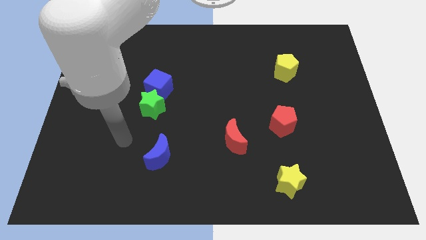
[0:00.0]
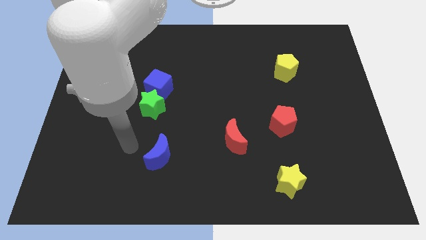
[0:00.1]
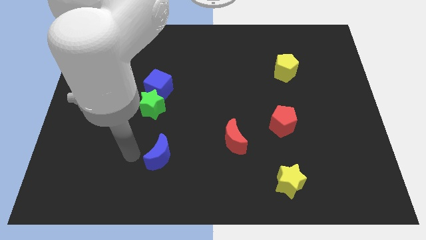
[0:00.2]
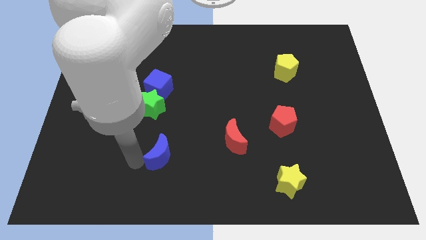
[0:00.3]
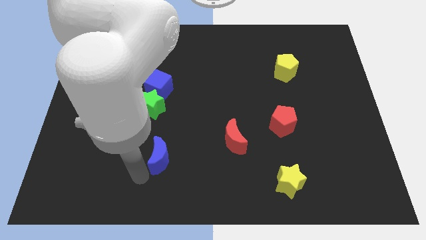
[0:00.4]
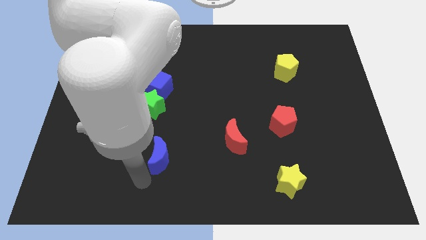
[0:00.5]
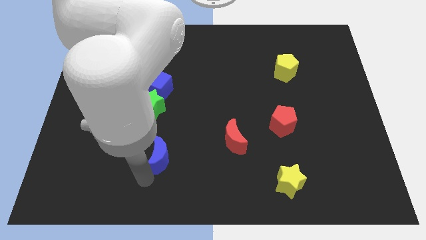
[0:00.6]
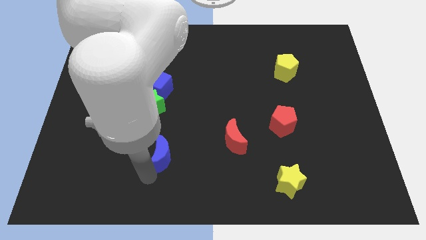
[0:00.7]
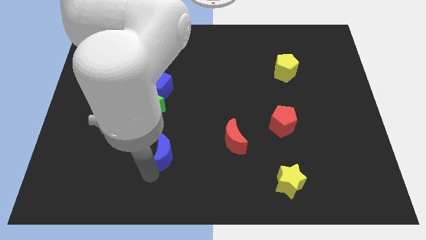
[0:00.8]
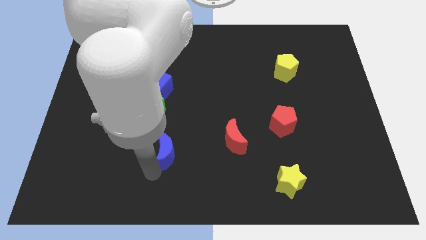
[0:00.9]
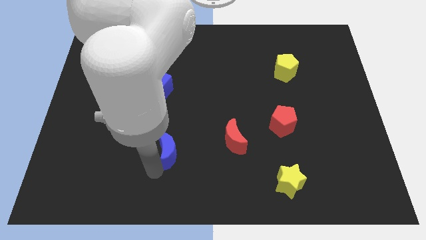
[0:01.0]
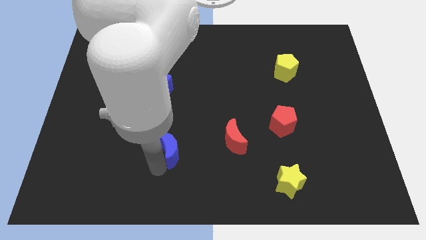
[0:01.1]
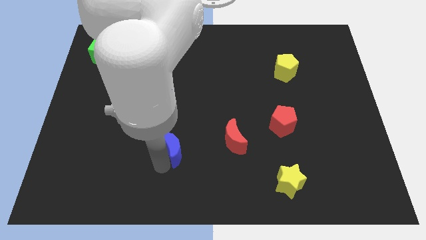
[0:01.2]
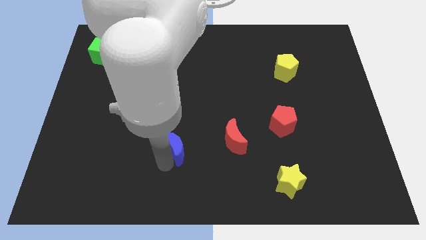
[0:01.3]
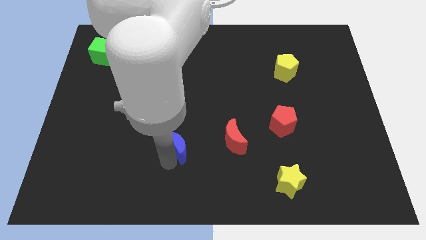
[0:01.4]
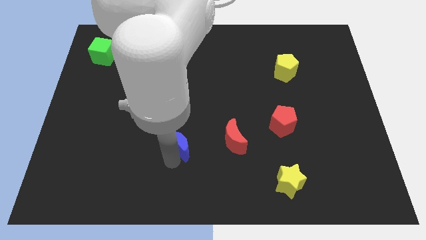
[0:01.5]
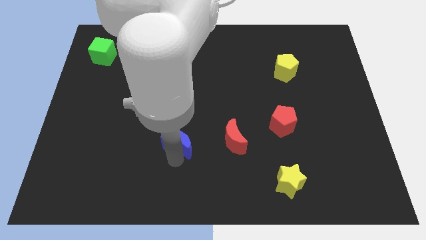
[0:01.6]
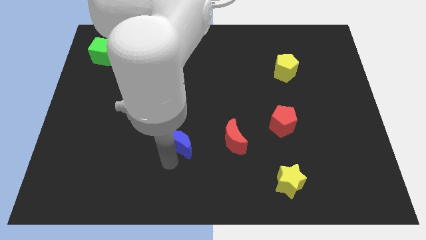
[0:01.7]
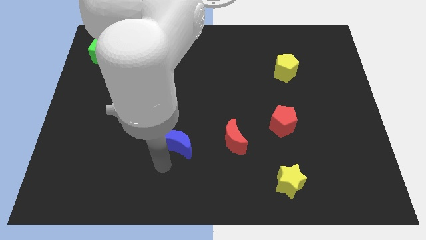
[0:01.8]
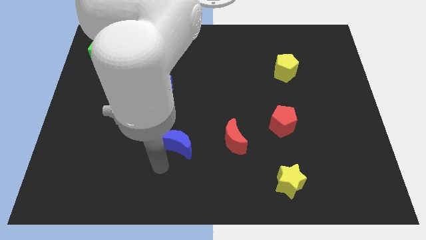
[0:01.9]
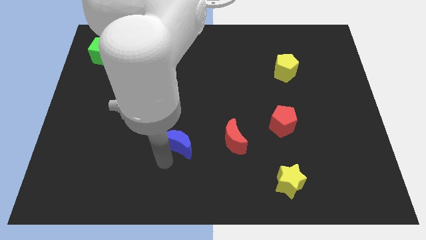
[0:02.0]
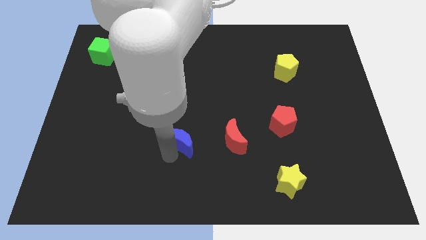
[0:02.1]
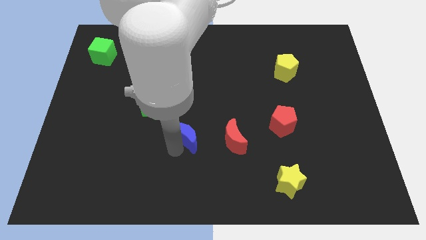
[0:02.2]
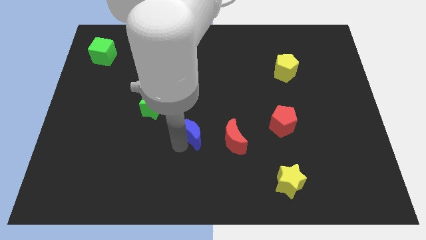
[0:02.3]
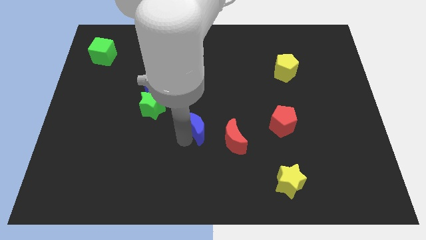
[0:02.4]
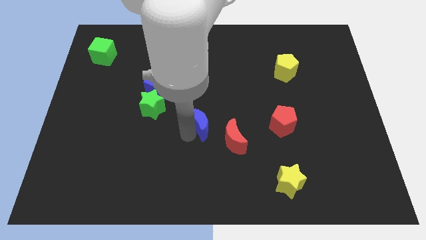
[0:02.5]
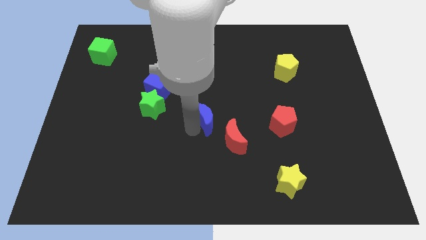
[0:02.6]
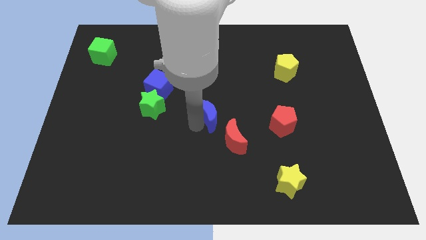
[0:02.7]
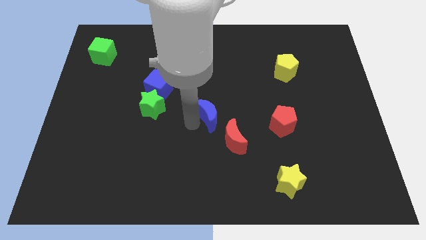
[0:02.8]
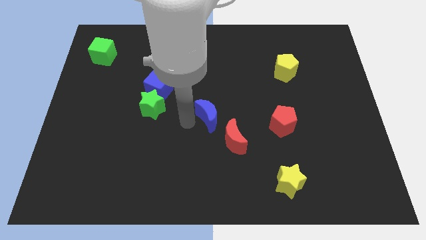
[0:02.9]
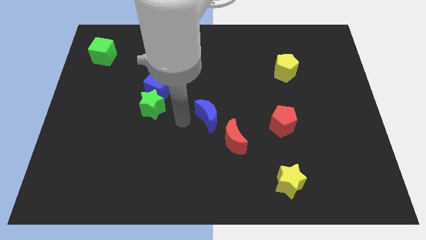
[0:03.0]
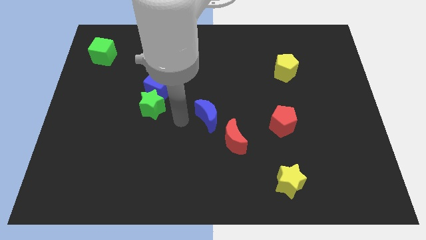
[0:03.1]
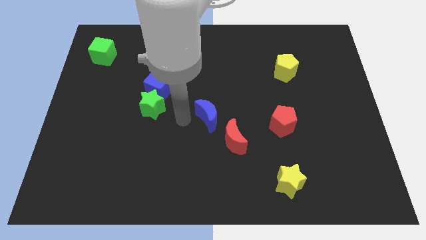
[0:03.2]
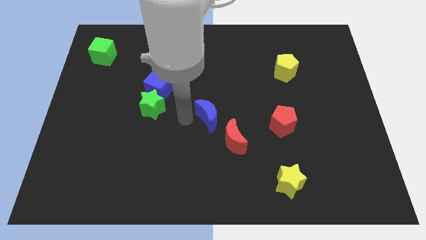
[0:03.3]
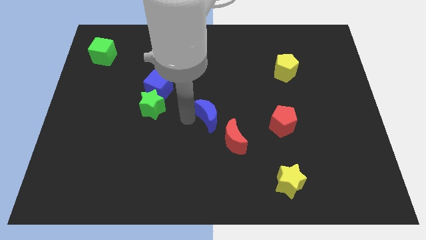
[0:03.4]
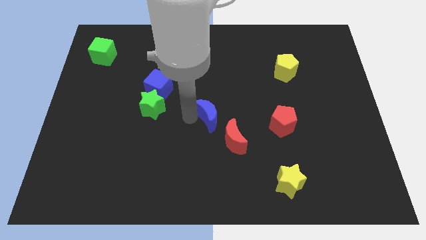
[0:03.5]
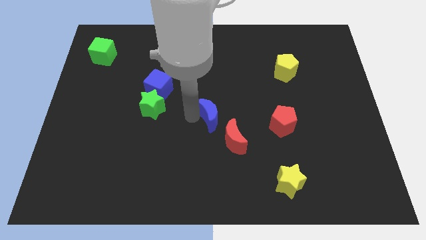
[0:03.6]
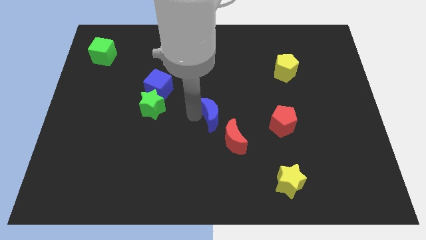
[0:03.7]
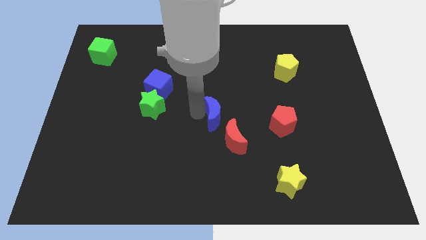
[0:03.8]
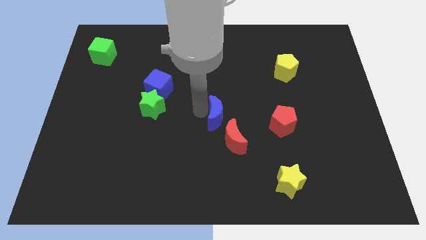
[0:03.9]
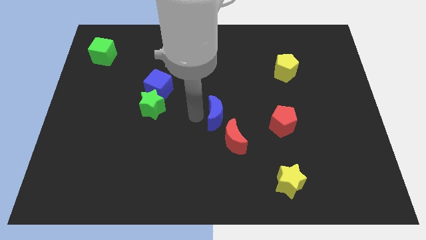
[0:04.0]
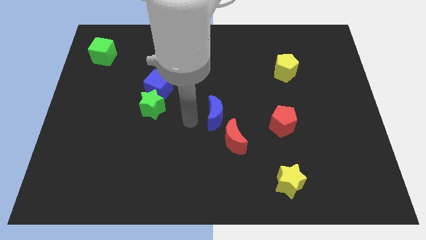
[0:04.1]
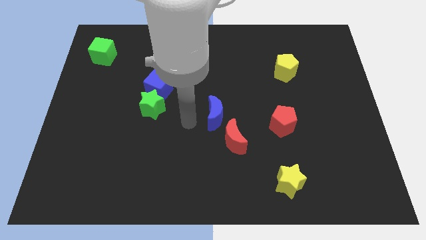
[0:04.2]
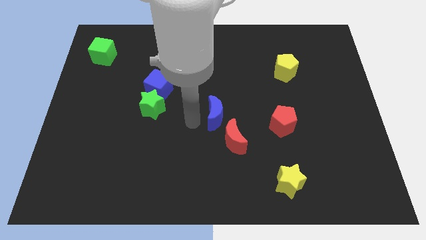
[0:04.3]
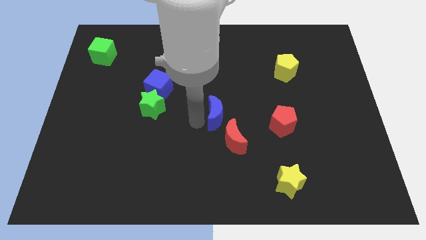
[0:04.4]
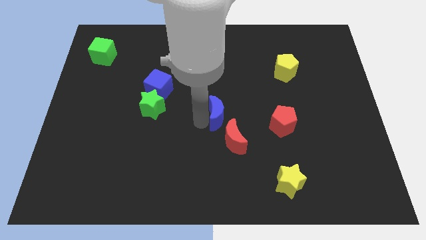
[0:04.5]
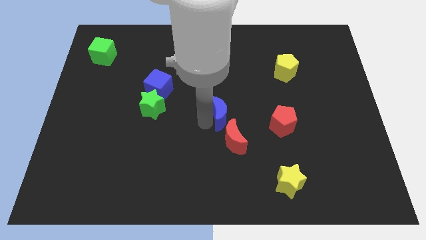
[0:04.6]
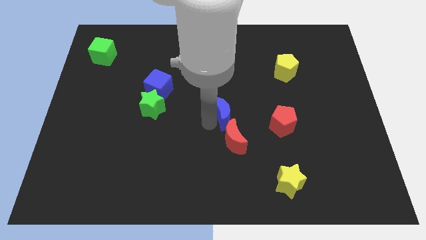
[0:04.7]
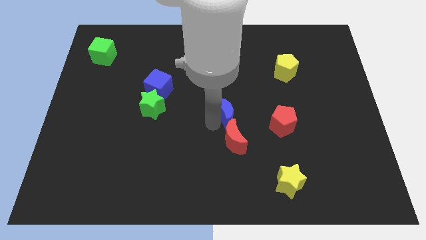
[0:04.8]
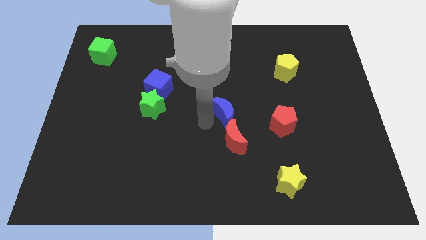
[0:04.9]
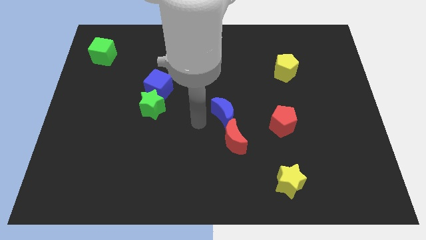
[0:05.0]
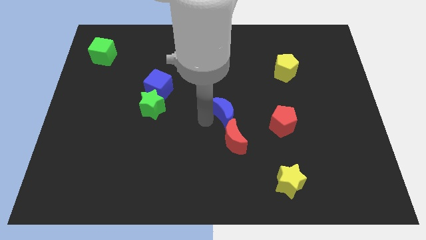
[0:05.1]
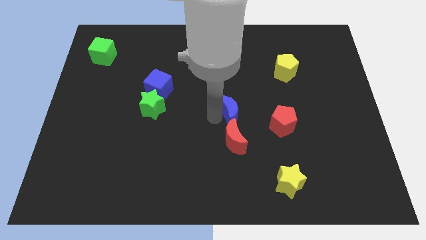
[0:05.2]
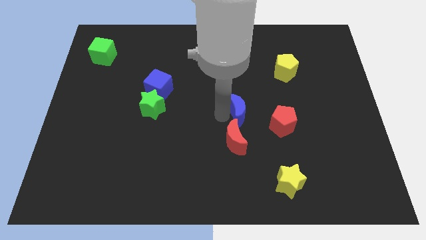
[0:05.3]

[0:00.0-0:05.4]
put the blue moon to the top left of the red pentagon

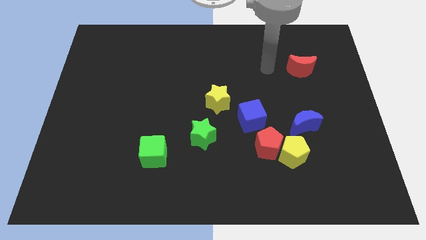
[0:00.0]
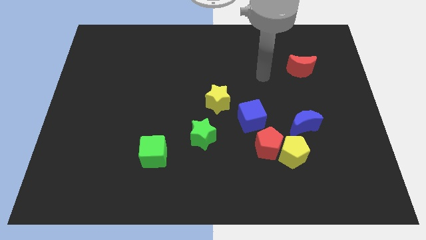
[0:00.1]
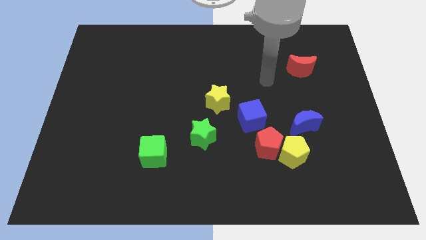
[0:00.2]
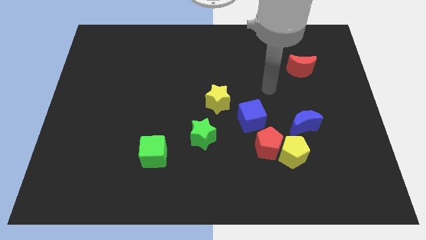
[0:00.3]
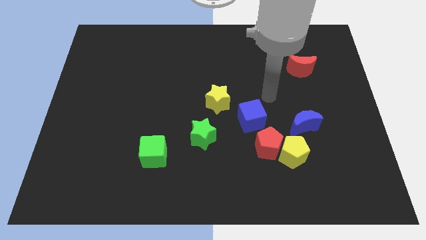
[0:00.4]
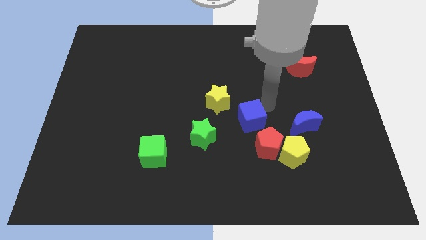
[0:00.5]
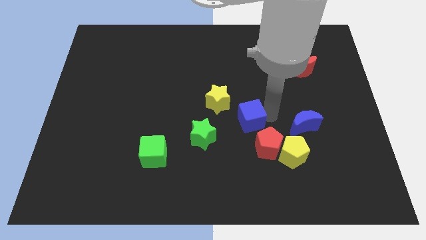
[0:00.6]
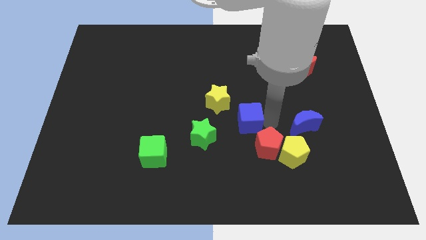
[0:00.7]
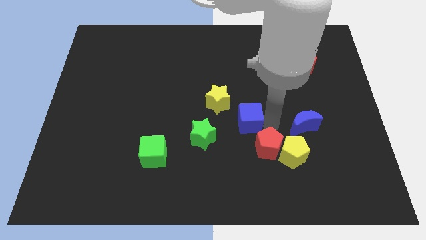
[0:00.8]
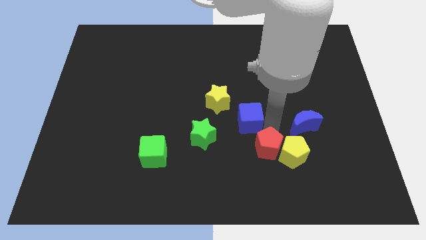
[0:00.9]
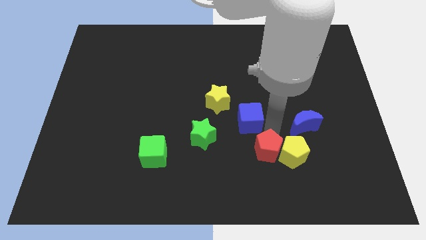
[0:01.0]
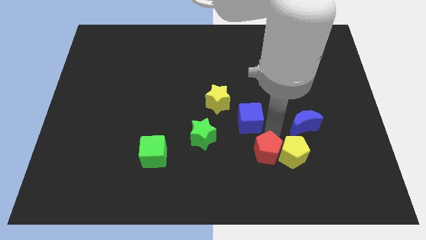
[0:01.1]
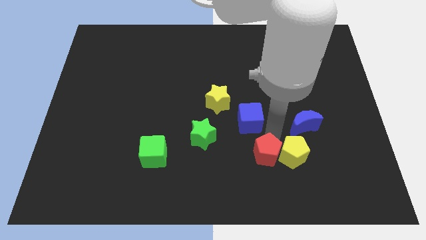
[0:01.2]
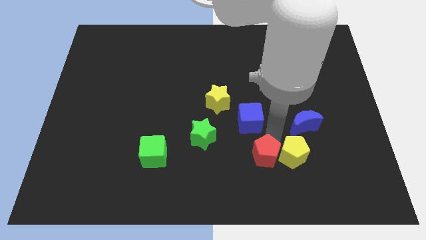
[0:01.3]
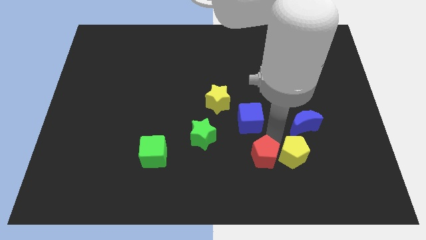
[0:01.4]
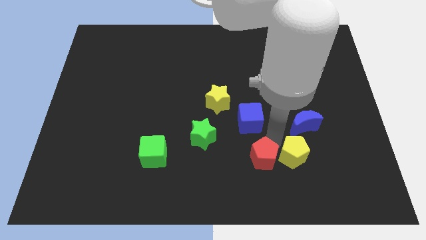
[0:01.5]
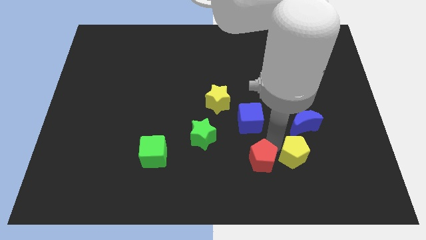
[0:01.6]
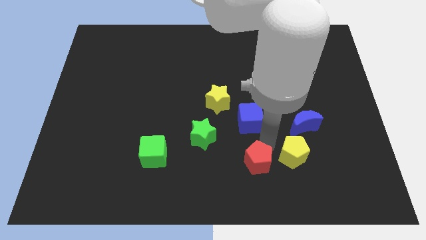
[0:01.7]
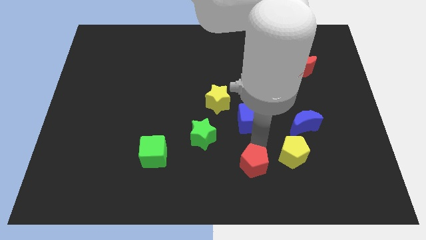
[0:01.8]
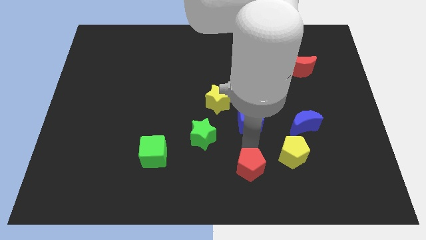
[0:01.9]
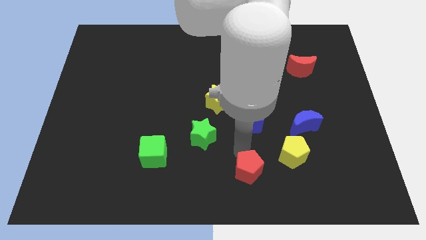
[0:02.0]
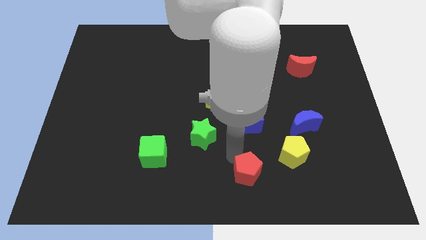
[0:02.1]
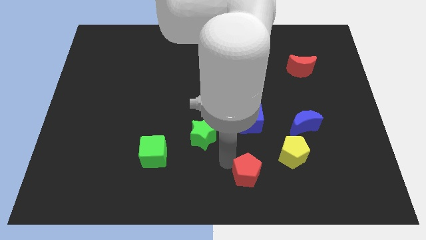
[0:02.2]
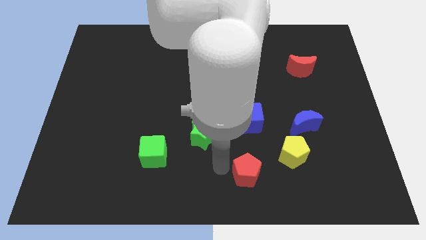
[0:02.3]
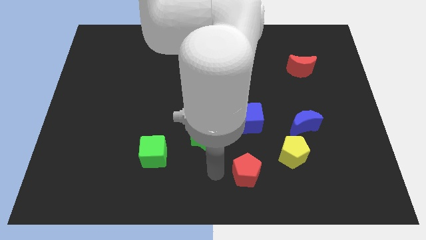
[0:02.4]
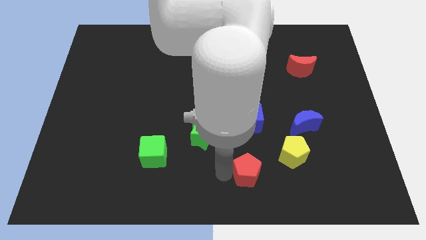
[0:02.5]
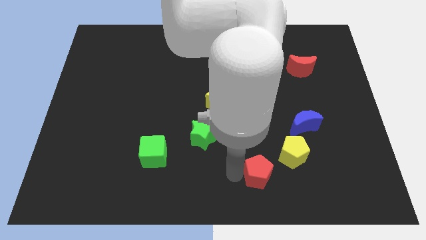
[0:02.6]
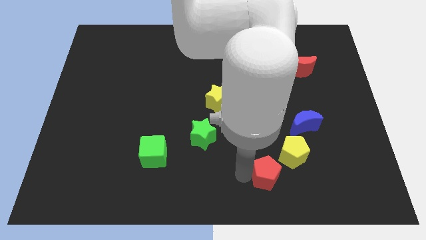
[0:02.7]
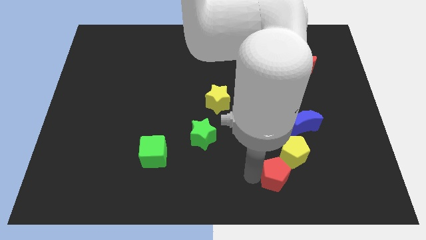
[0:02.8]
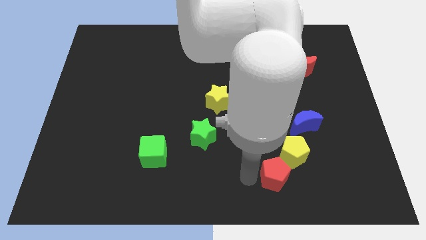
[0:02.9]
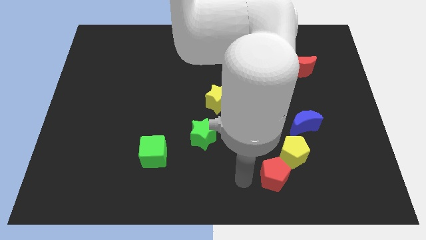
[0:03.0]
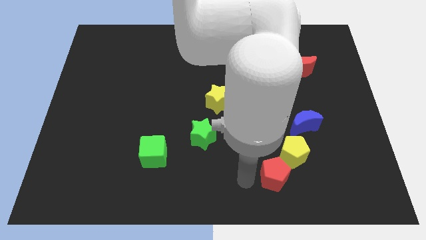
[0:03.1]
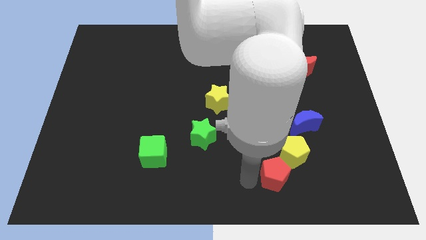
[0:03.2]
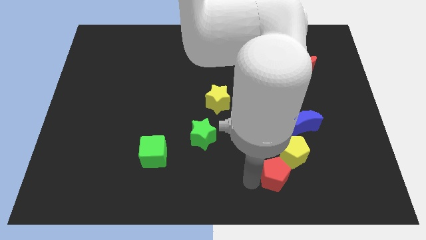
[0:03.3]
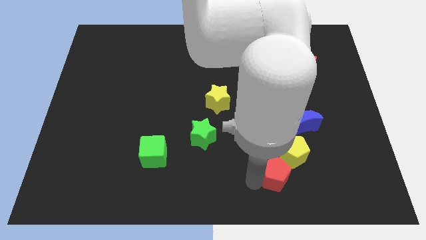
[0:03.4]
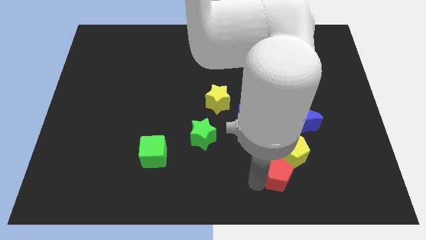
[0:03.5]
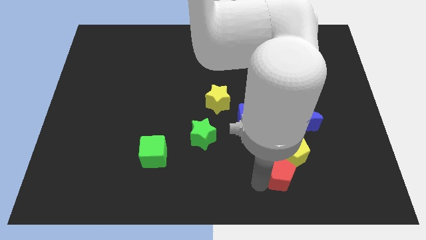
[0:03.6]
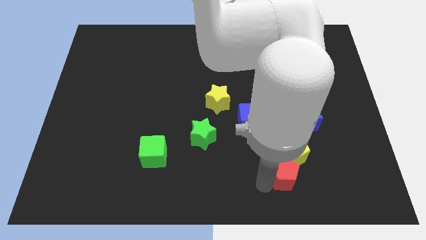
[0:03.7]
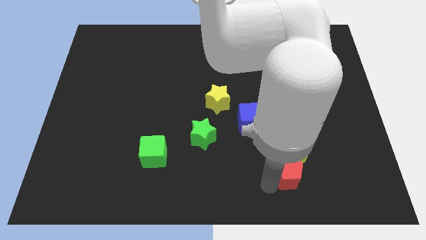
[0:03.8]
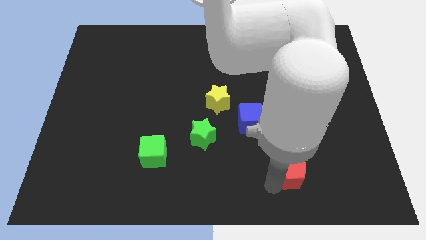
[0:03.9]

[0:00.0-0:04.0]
push the red pentagon diagonally down and to the right of the yellow pentagon
